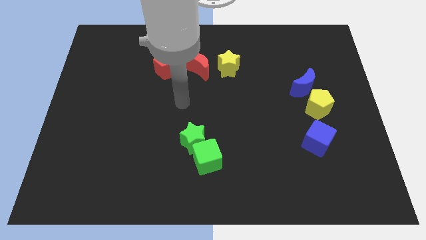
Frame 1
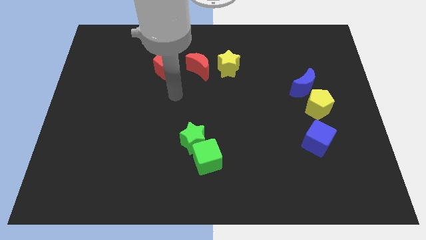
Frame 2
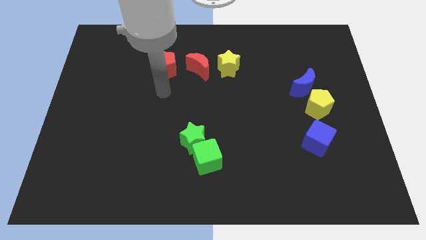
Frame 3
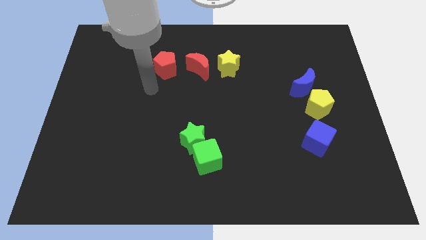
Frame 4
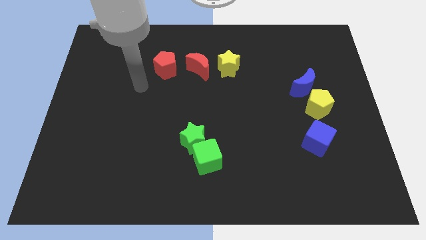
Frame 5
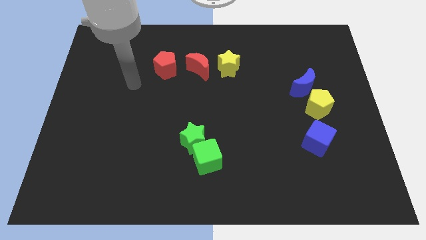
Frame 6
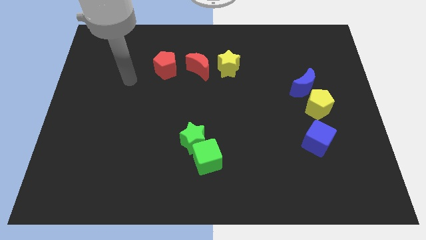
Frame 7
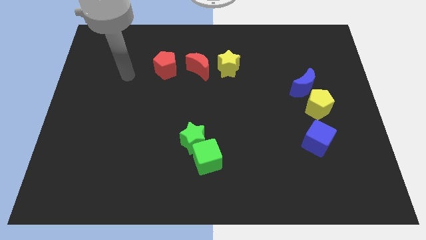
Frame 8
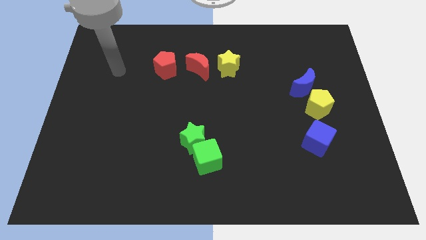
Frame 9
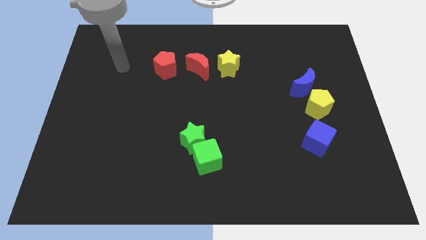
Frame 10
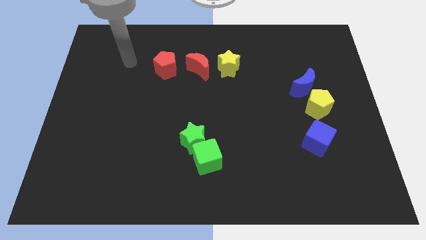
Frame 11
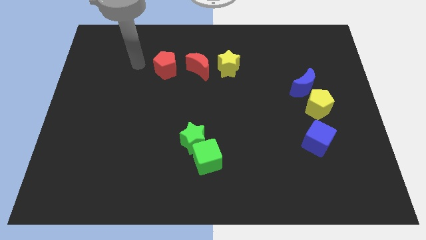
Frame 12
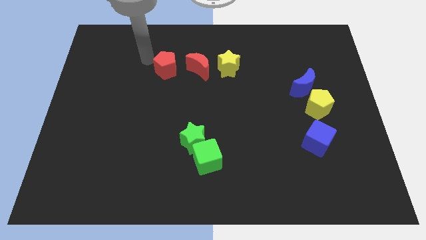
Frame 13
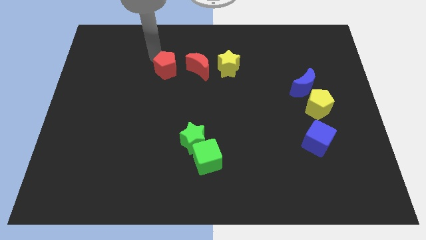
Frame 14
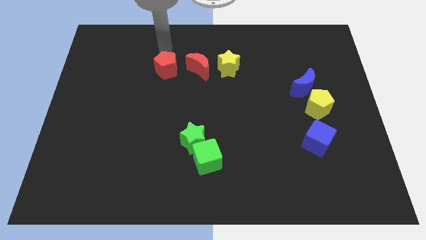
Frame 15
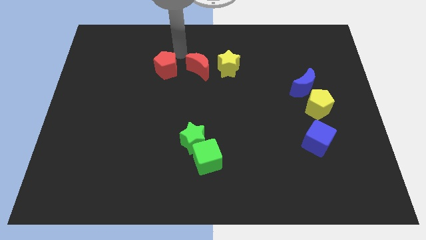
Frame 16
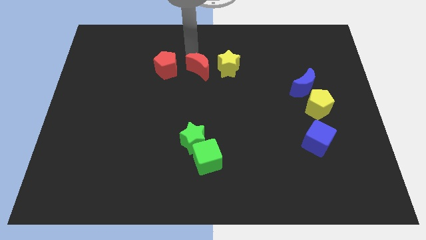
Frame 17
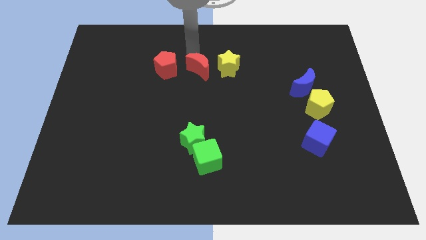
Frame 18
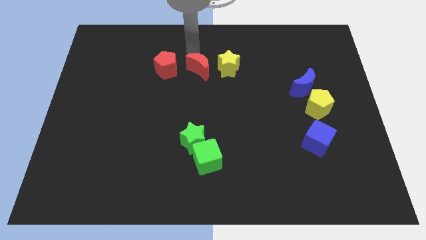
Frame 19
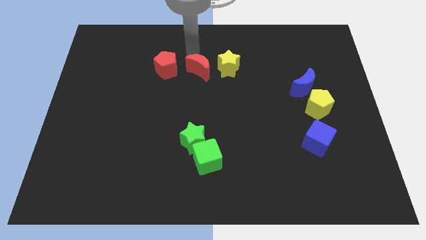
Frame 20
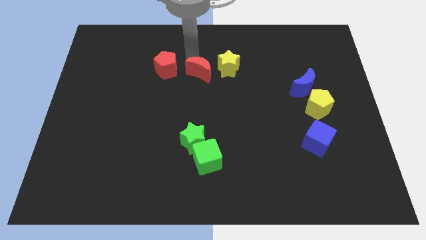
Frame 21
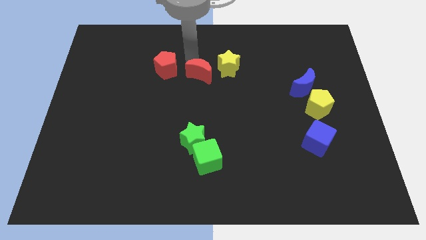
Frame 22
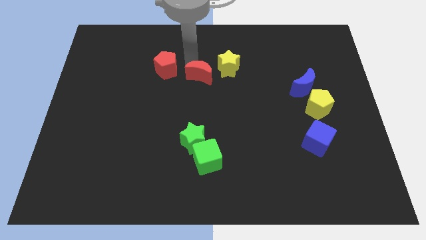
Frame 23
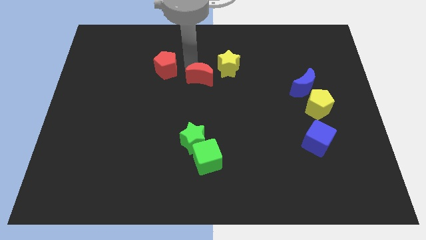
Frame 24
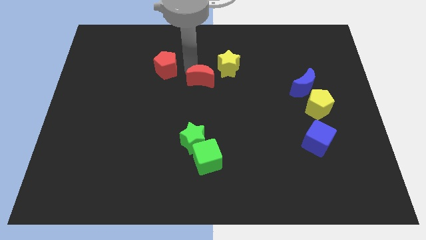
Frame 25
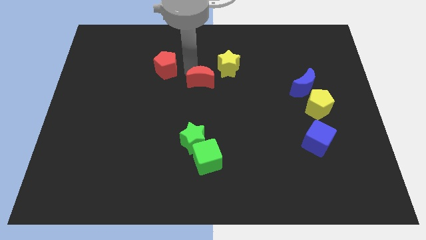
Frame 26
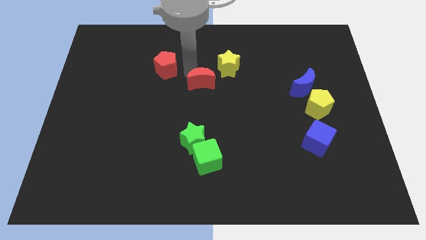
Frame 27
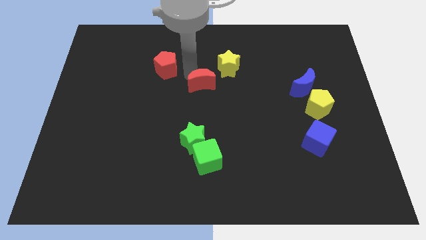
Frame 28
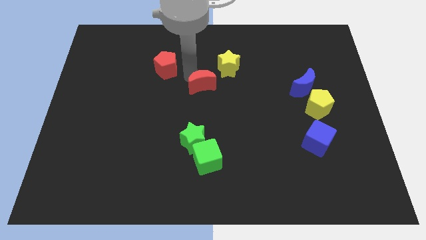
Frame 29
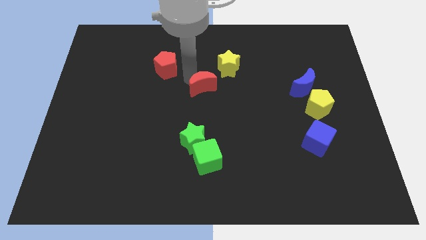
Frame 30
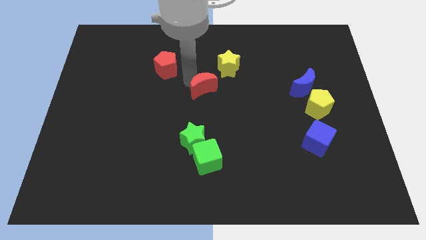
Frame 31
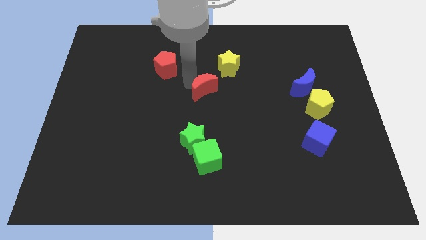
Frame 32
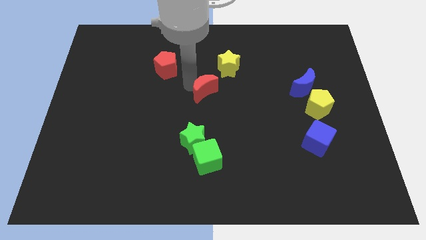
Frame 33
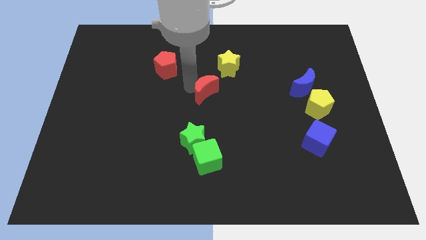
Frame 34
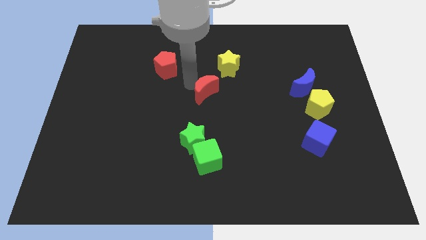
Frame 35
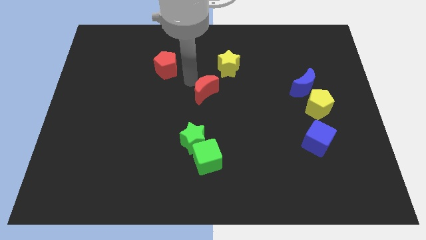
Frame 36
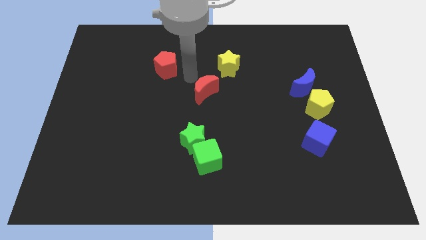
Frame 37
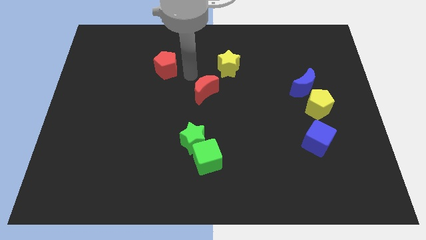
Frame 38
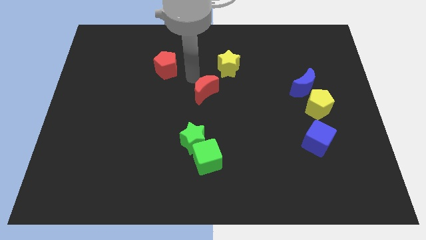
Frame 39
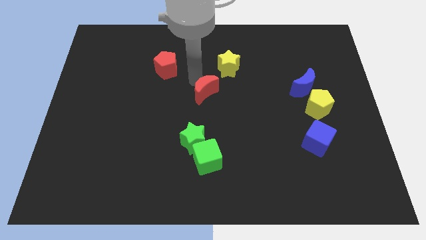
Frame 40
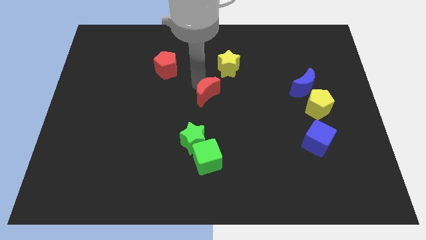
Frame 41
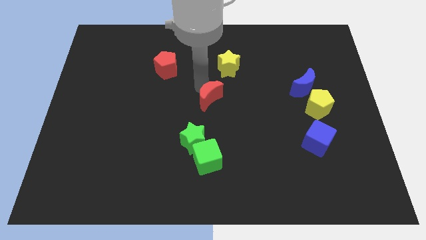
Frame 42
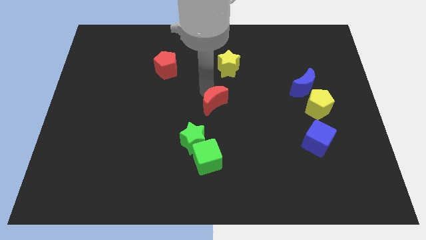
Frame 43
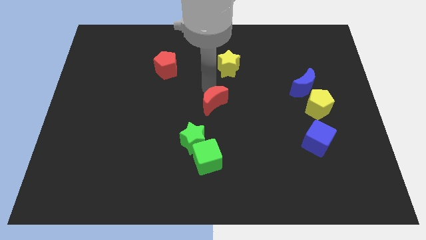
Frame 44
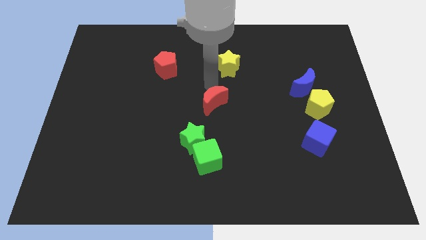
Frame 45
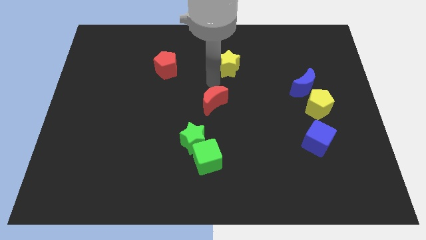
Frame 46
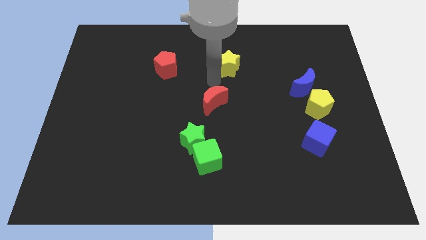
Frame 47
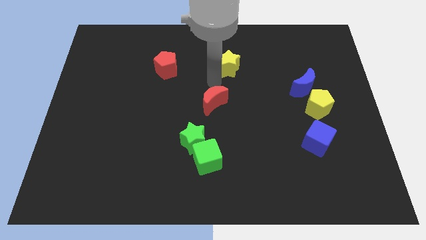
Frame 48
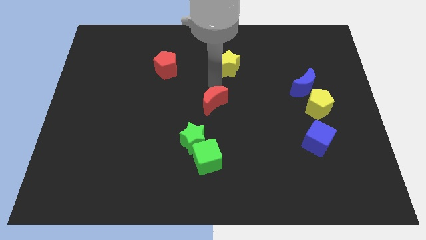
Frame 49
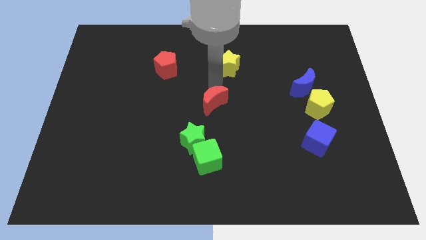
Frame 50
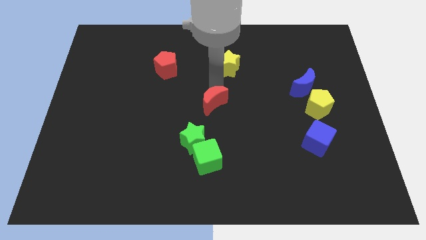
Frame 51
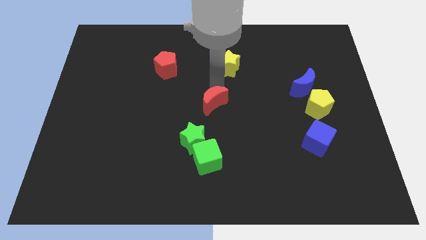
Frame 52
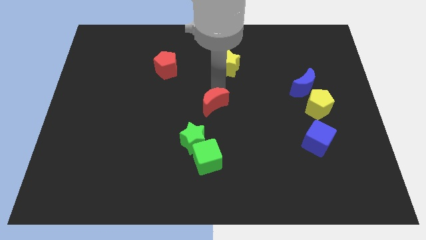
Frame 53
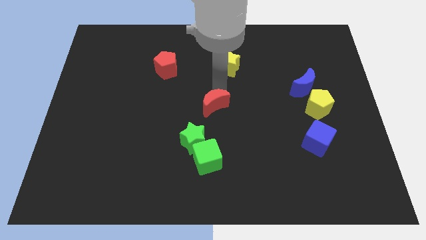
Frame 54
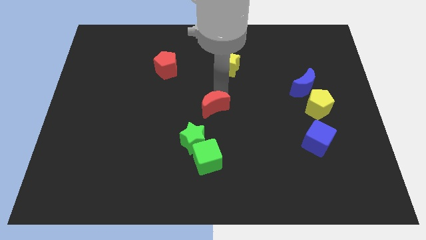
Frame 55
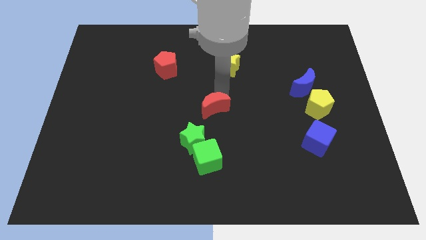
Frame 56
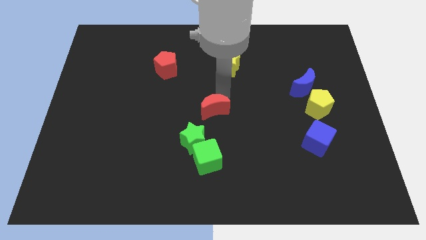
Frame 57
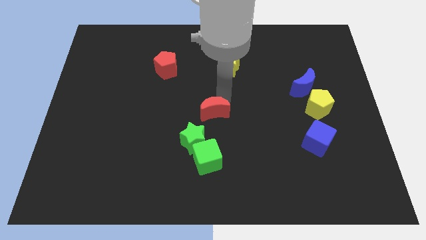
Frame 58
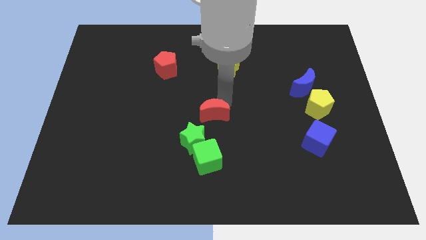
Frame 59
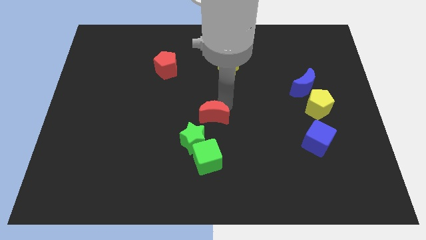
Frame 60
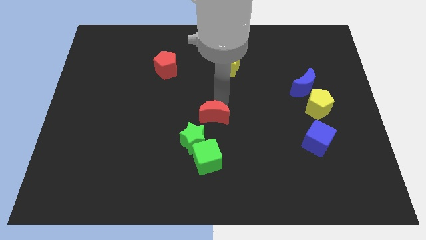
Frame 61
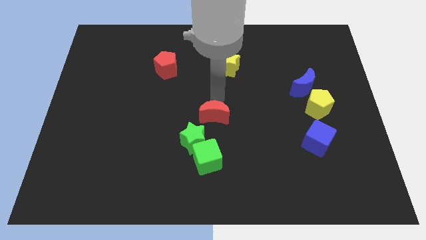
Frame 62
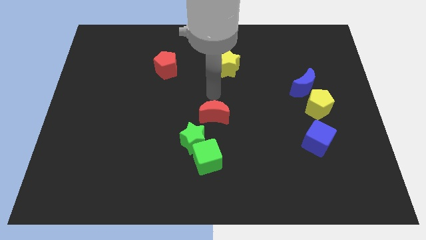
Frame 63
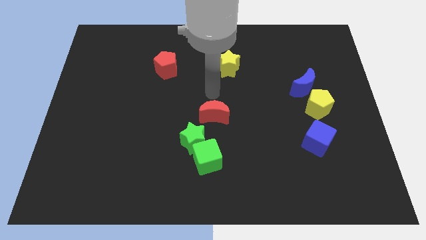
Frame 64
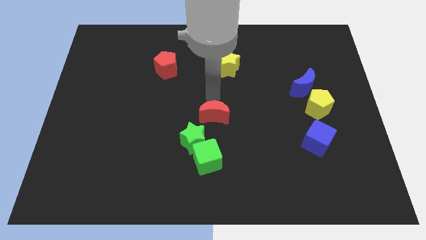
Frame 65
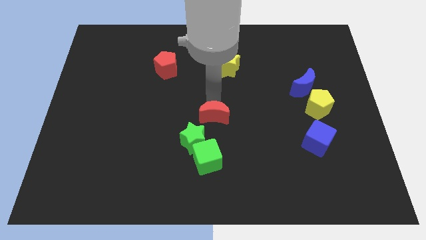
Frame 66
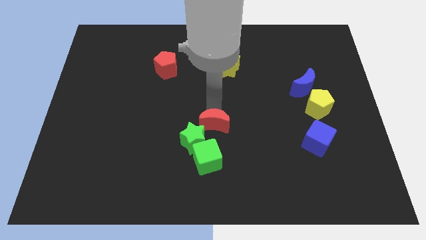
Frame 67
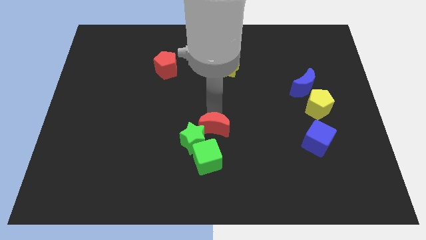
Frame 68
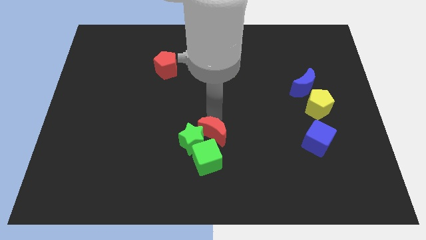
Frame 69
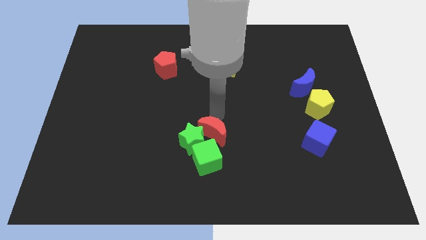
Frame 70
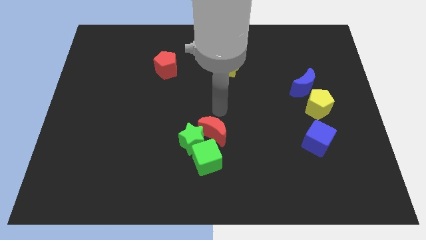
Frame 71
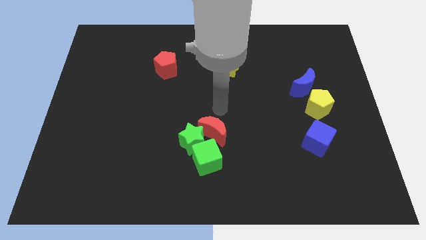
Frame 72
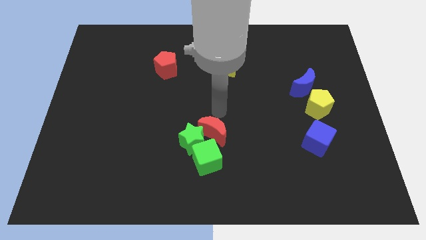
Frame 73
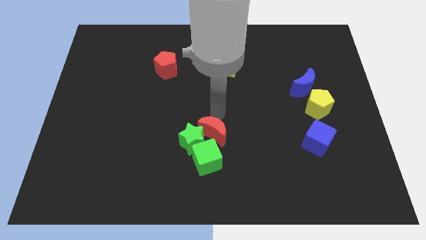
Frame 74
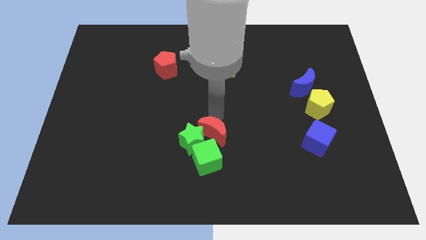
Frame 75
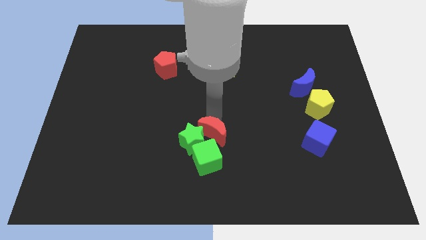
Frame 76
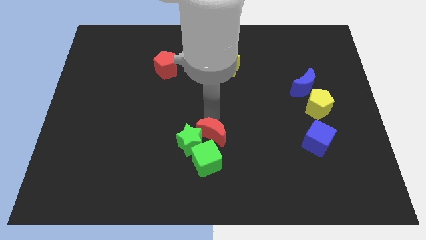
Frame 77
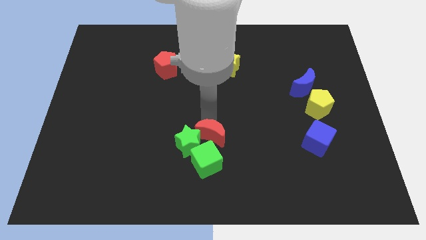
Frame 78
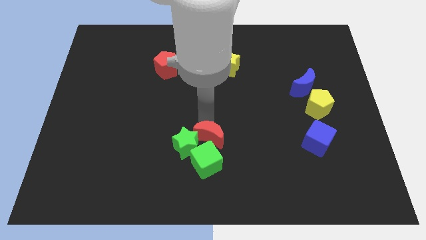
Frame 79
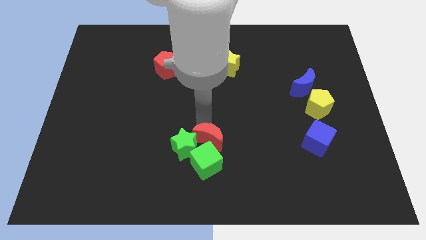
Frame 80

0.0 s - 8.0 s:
push the red moon to the green cube
